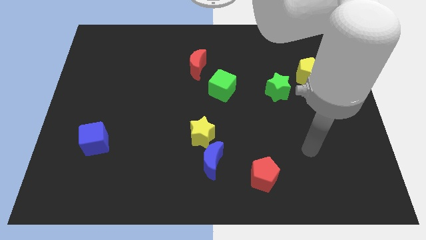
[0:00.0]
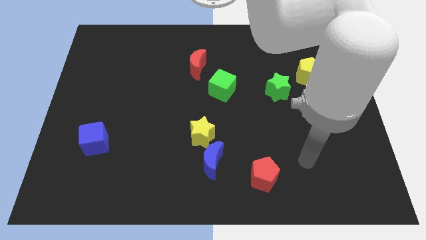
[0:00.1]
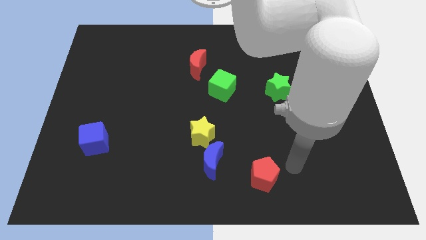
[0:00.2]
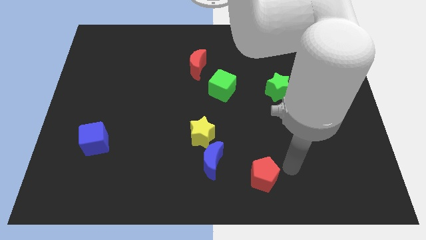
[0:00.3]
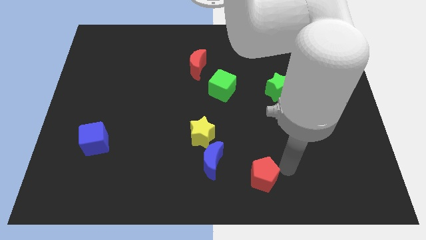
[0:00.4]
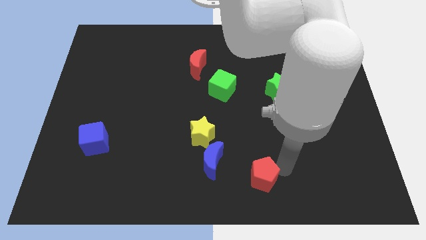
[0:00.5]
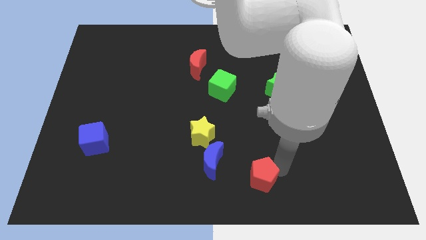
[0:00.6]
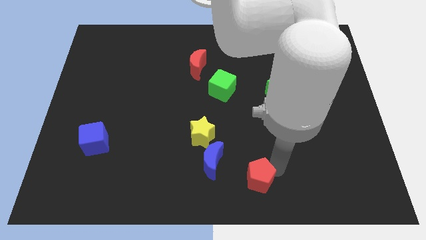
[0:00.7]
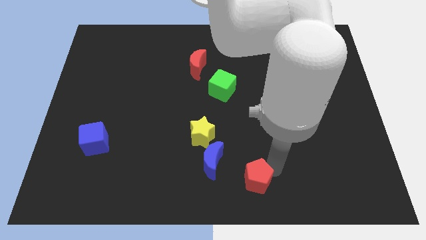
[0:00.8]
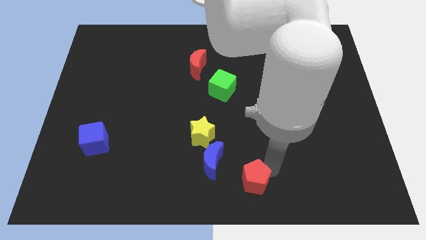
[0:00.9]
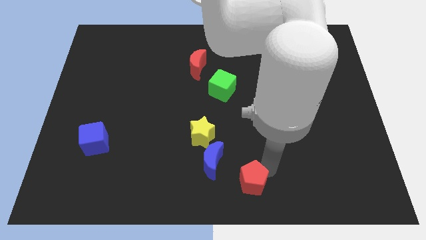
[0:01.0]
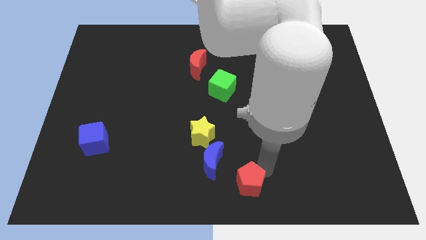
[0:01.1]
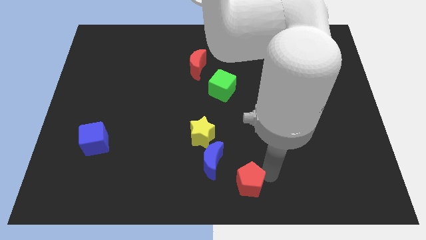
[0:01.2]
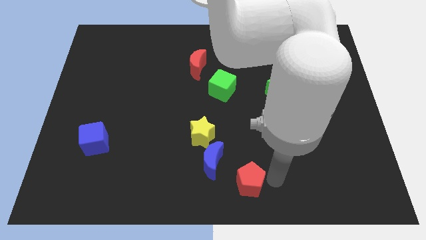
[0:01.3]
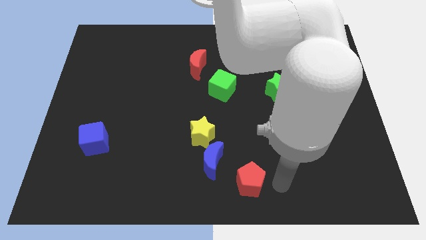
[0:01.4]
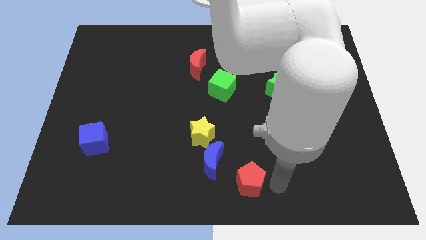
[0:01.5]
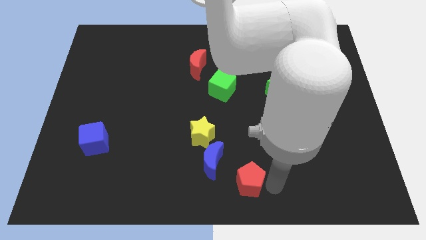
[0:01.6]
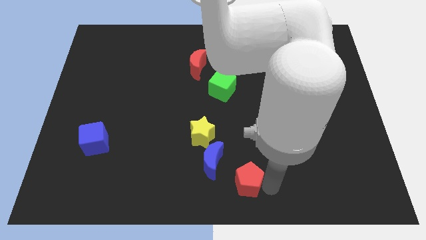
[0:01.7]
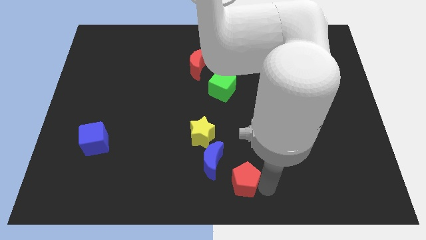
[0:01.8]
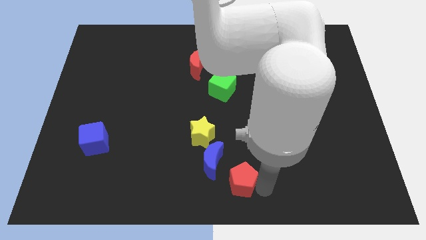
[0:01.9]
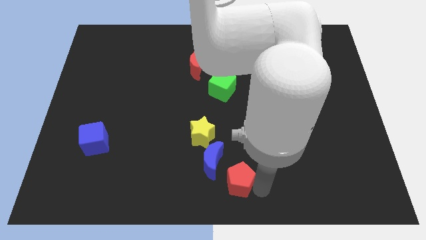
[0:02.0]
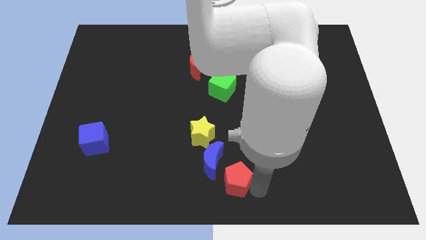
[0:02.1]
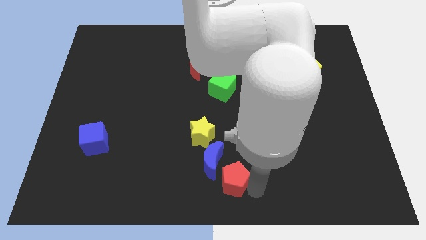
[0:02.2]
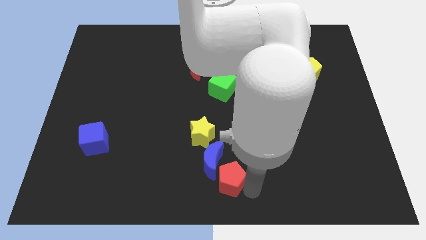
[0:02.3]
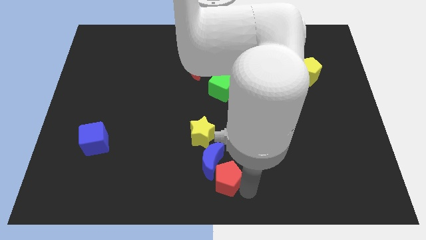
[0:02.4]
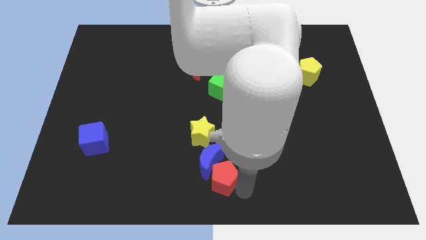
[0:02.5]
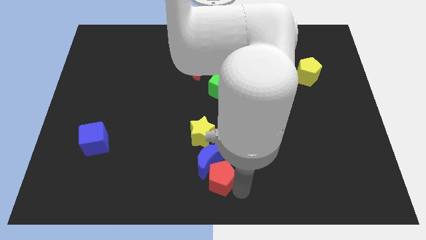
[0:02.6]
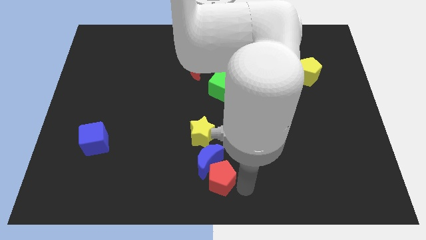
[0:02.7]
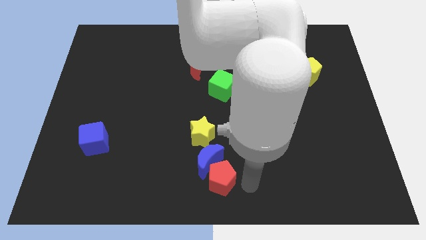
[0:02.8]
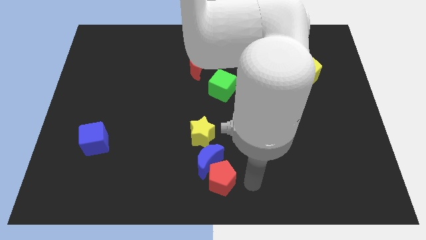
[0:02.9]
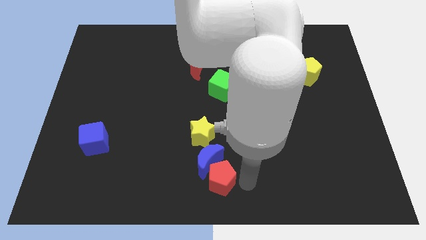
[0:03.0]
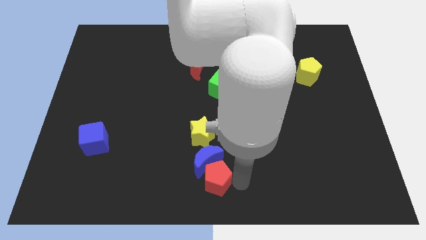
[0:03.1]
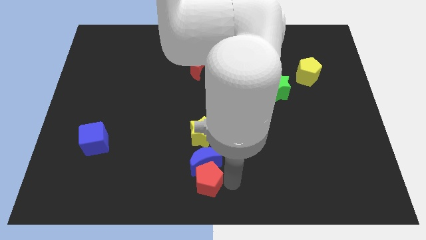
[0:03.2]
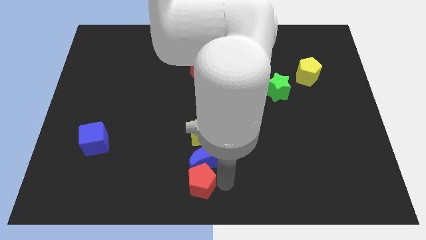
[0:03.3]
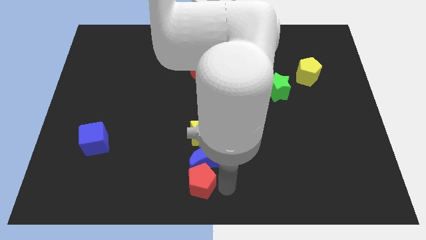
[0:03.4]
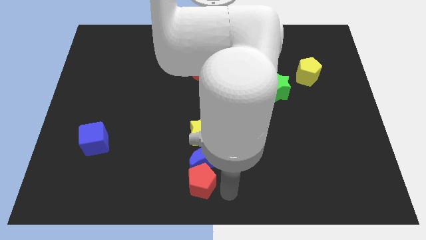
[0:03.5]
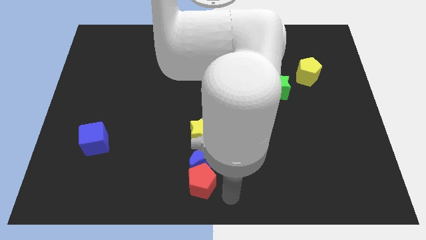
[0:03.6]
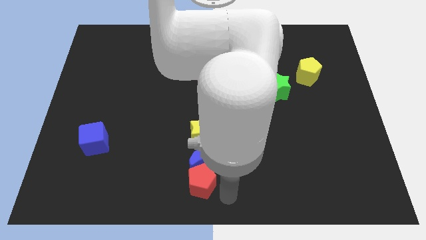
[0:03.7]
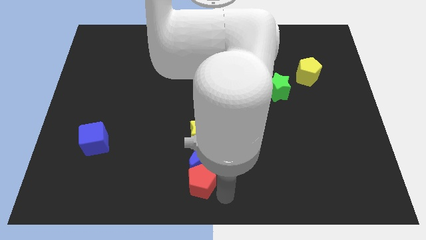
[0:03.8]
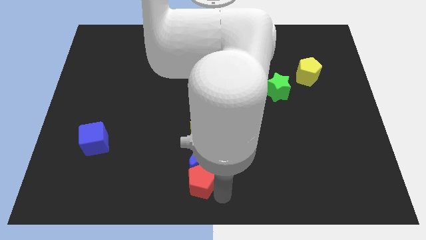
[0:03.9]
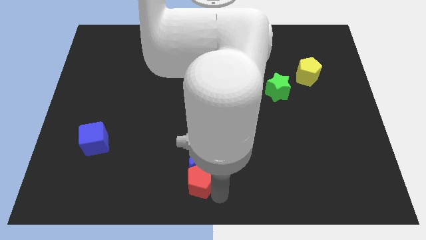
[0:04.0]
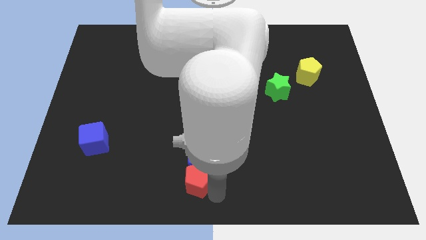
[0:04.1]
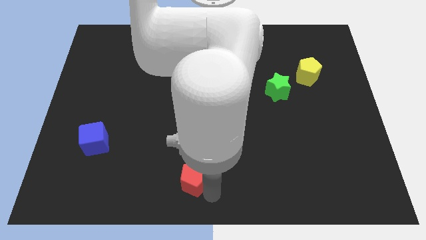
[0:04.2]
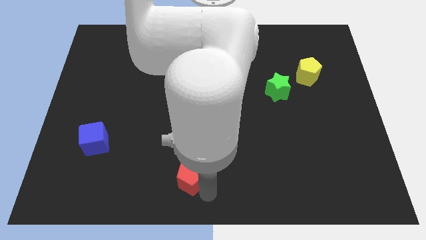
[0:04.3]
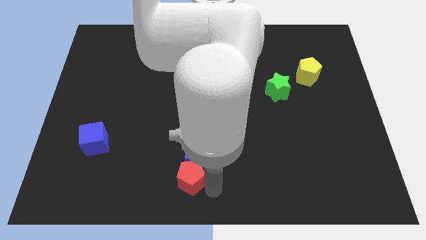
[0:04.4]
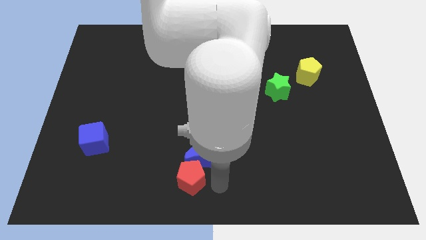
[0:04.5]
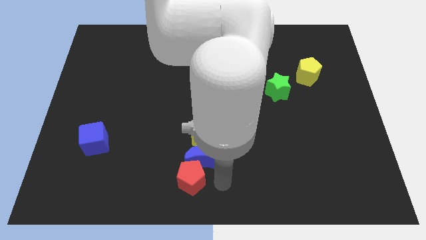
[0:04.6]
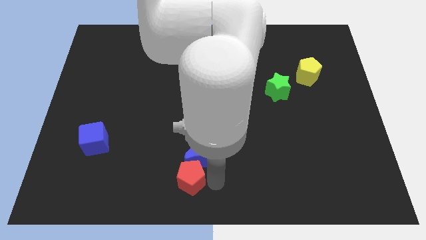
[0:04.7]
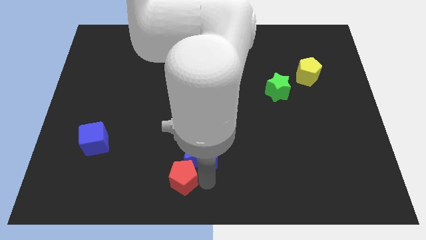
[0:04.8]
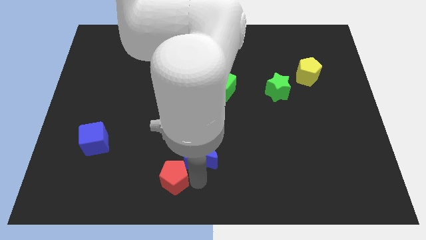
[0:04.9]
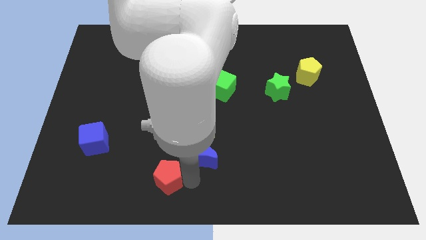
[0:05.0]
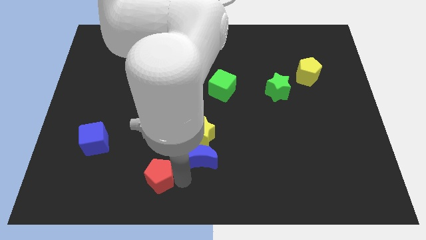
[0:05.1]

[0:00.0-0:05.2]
move the red pentagon left

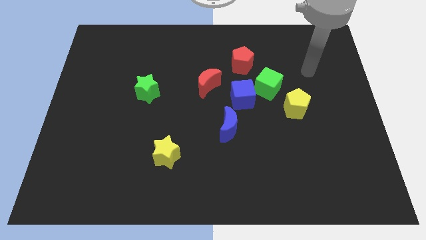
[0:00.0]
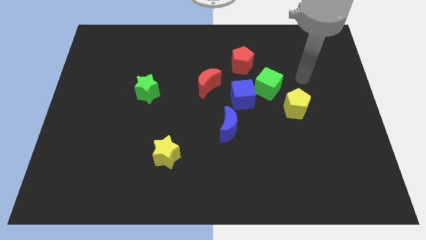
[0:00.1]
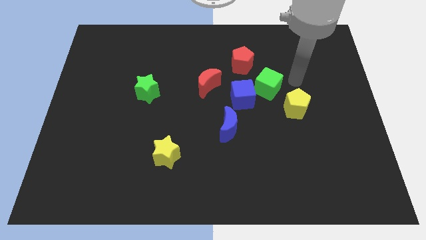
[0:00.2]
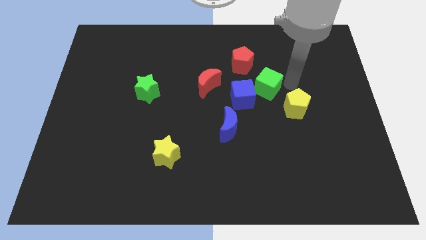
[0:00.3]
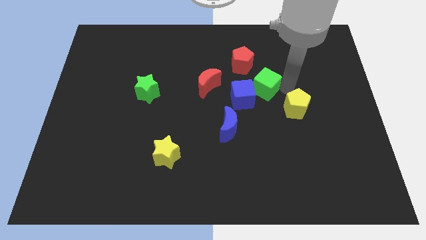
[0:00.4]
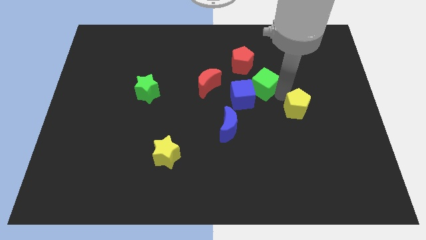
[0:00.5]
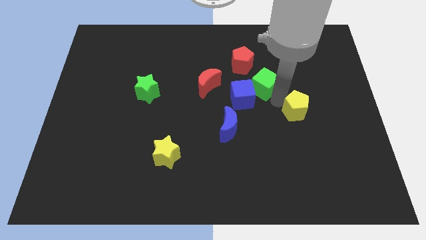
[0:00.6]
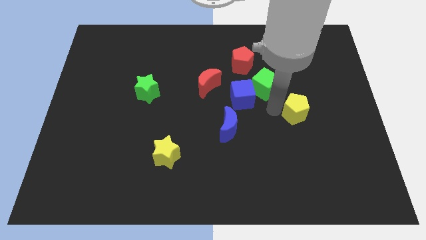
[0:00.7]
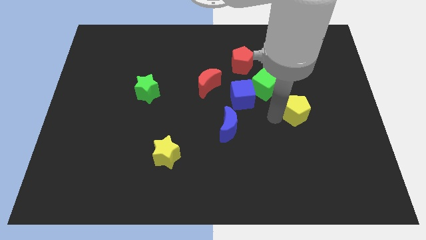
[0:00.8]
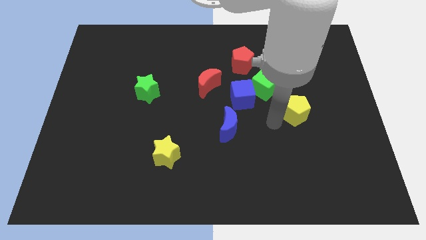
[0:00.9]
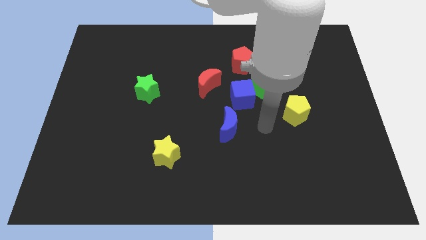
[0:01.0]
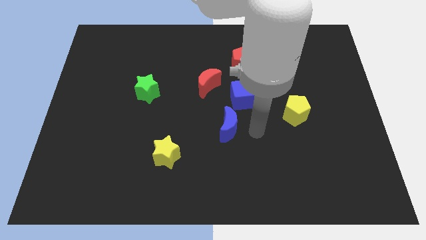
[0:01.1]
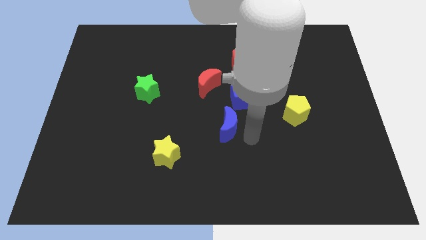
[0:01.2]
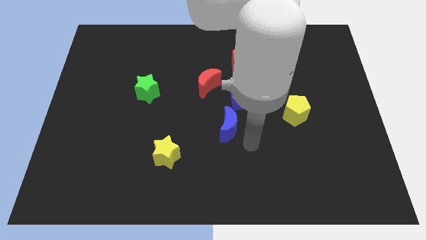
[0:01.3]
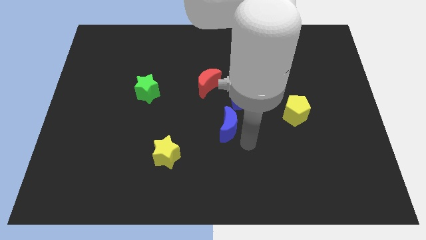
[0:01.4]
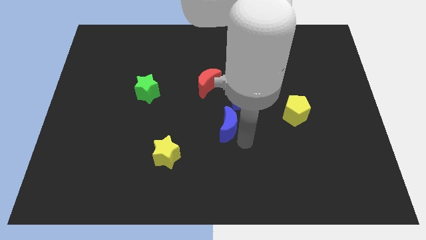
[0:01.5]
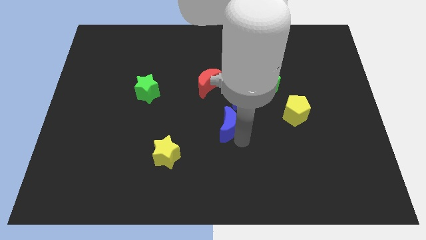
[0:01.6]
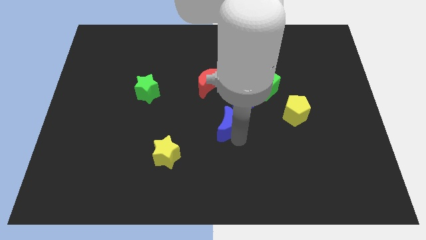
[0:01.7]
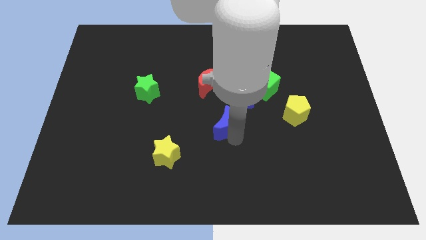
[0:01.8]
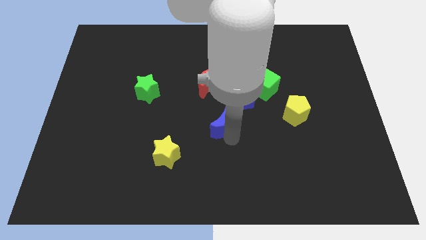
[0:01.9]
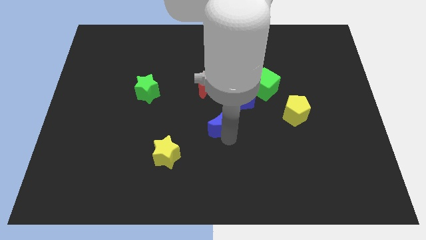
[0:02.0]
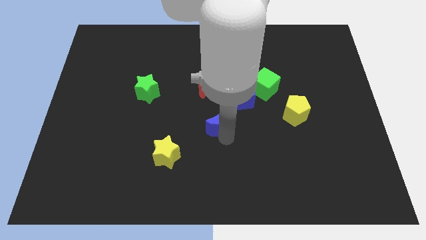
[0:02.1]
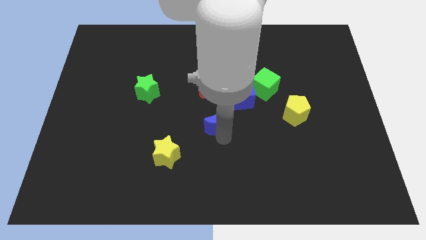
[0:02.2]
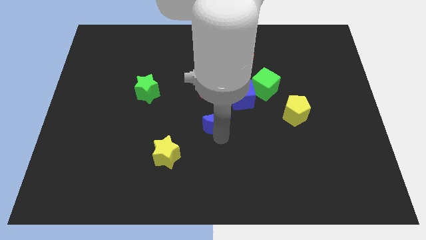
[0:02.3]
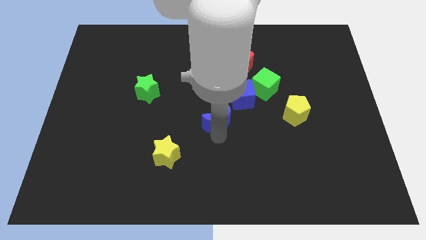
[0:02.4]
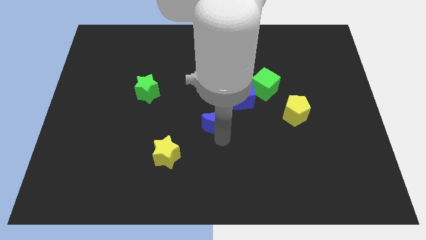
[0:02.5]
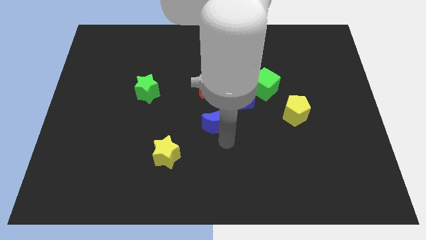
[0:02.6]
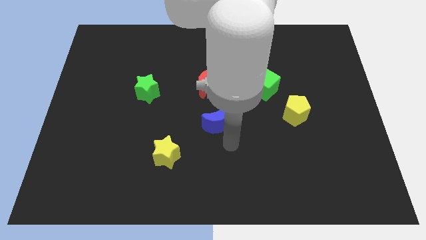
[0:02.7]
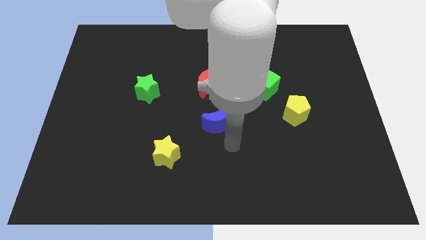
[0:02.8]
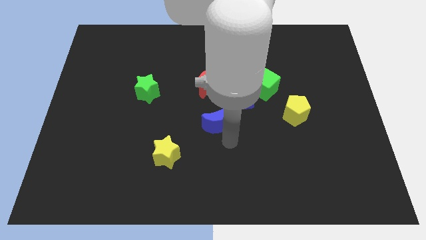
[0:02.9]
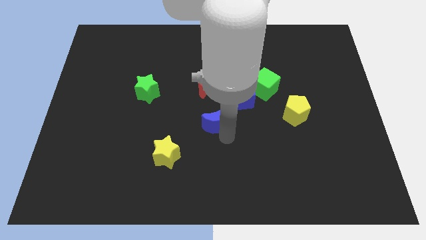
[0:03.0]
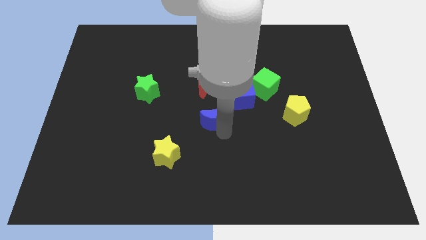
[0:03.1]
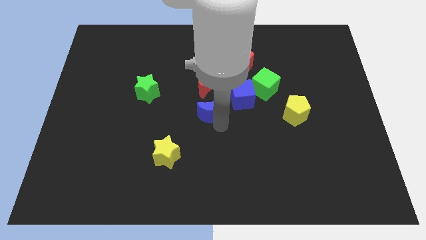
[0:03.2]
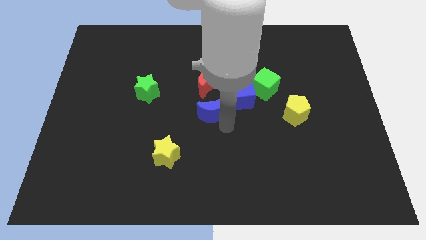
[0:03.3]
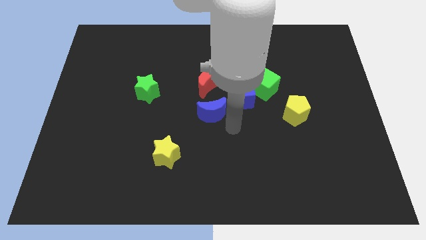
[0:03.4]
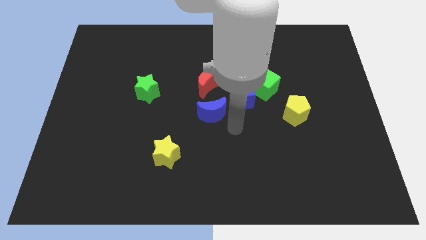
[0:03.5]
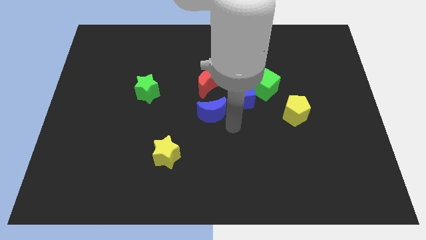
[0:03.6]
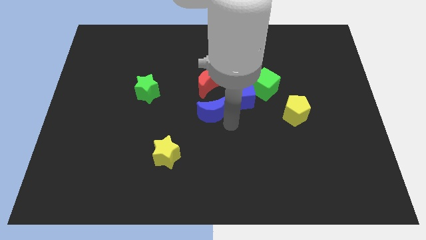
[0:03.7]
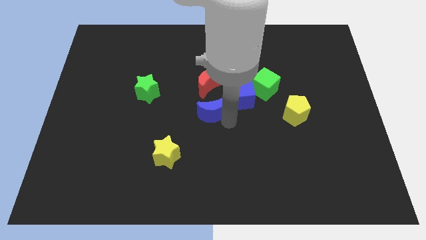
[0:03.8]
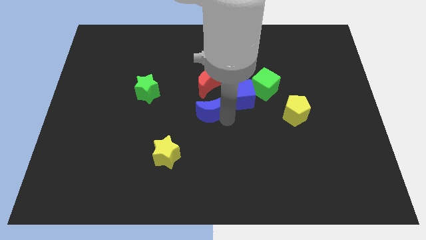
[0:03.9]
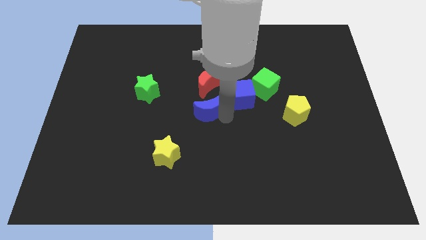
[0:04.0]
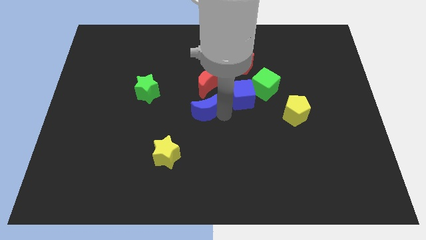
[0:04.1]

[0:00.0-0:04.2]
push the blue moon somewhat diagonally upwards and left
